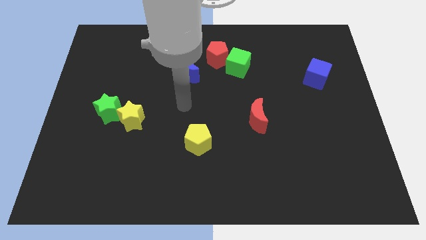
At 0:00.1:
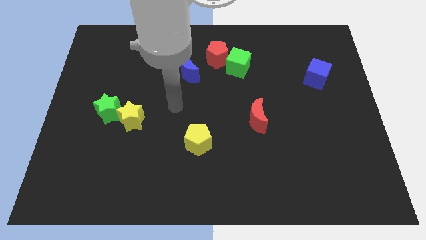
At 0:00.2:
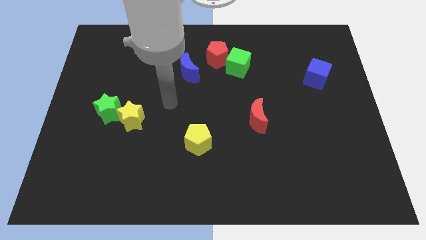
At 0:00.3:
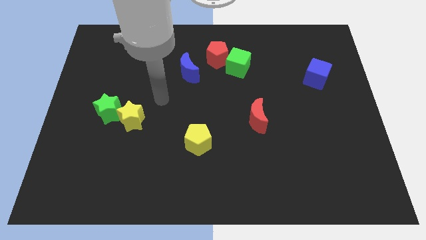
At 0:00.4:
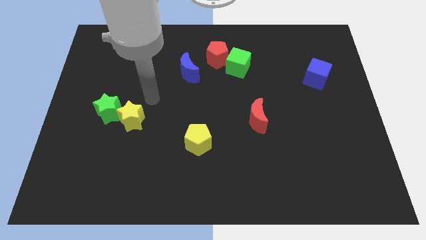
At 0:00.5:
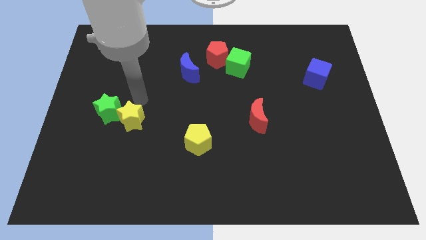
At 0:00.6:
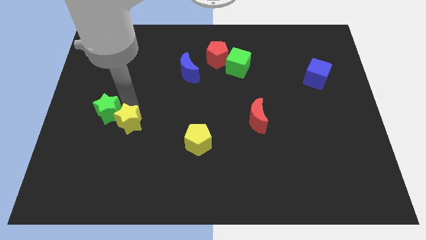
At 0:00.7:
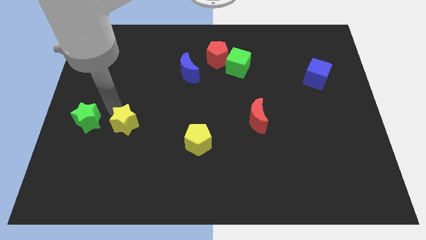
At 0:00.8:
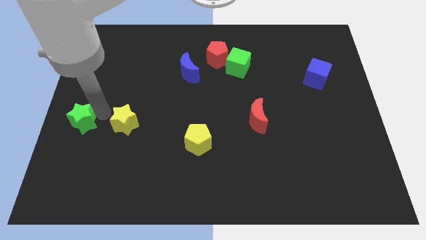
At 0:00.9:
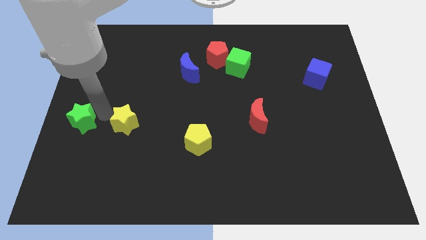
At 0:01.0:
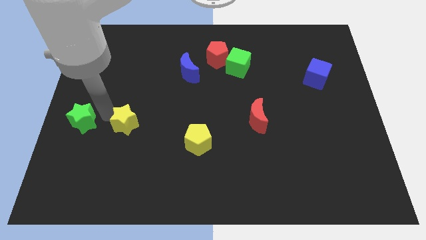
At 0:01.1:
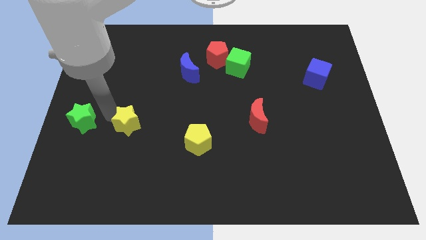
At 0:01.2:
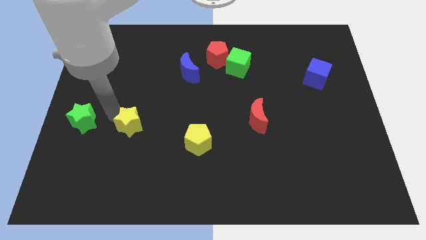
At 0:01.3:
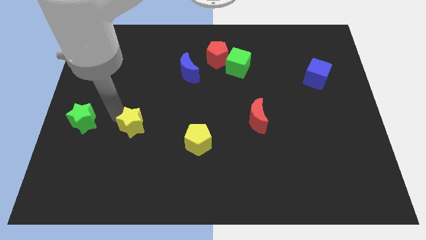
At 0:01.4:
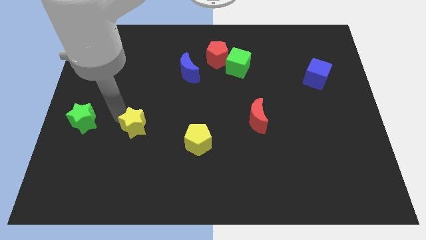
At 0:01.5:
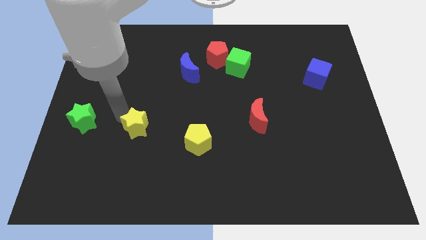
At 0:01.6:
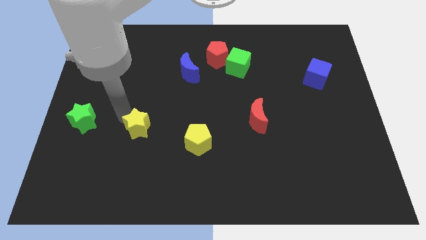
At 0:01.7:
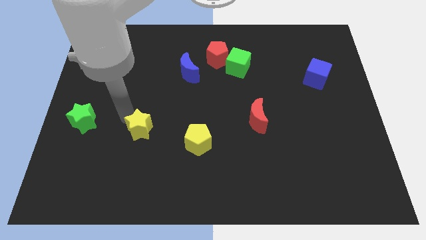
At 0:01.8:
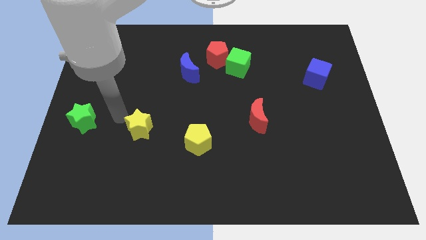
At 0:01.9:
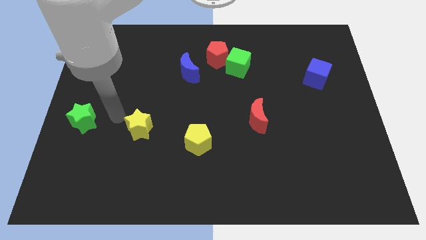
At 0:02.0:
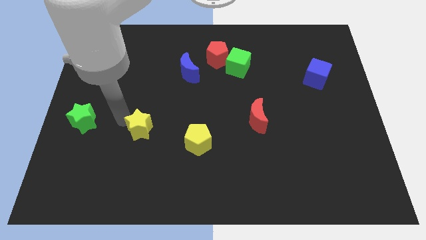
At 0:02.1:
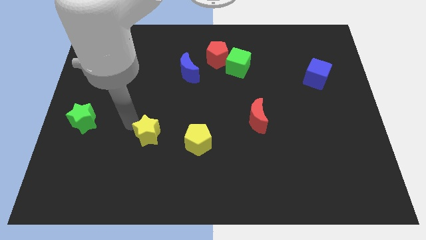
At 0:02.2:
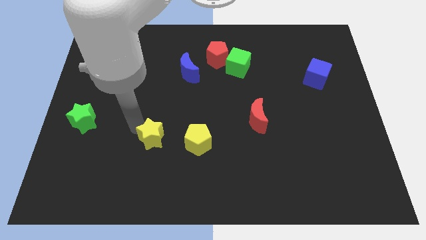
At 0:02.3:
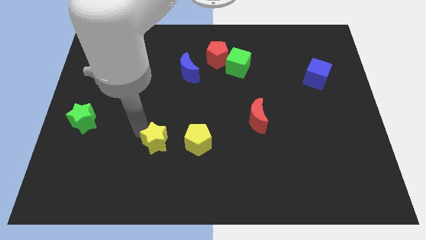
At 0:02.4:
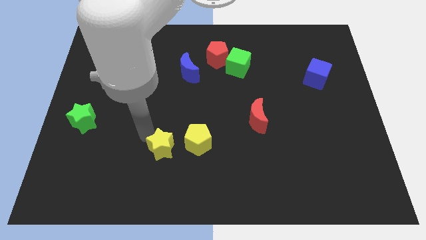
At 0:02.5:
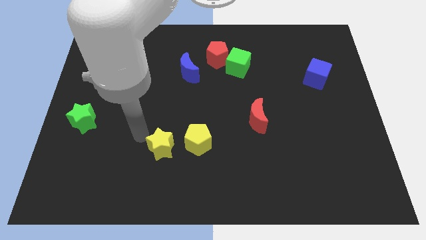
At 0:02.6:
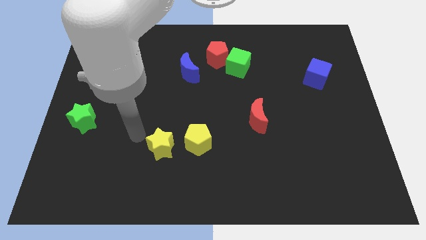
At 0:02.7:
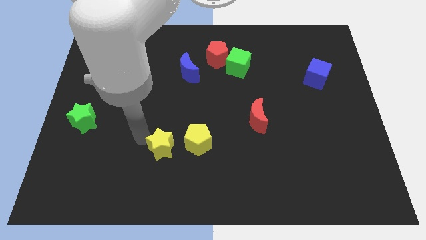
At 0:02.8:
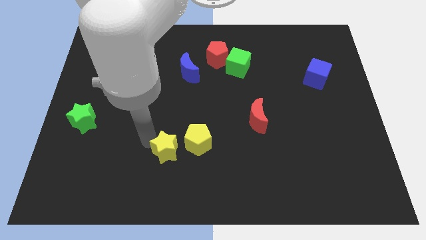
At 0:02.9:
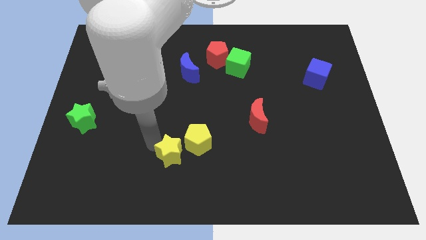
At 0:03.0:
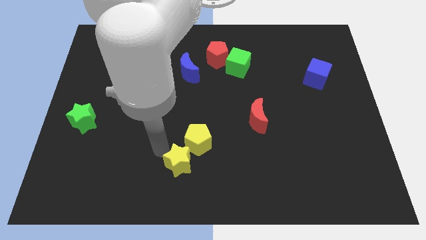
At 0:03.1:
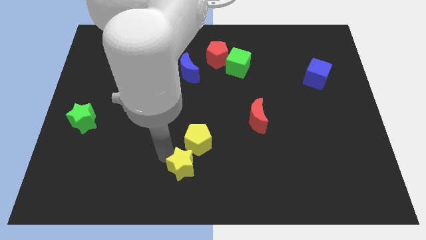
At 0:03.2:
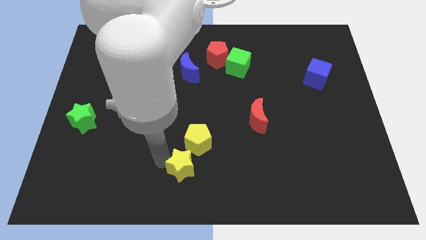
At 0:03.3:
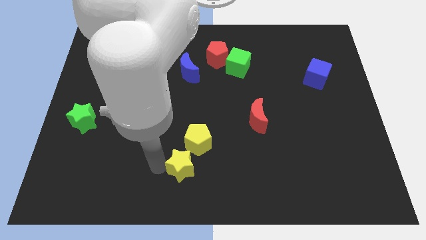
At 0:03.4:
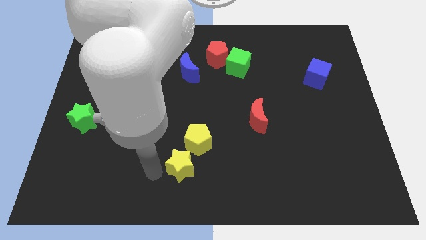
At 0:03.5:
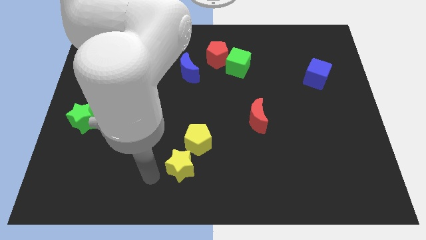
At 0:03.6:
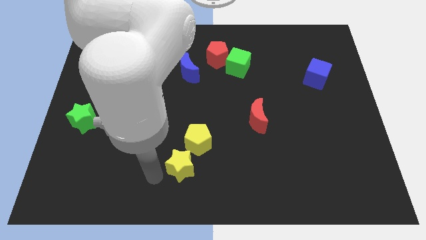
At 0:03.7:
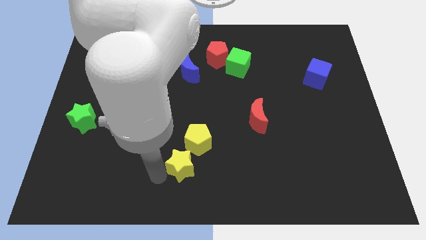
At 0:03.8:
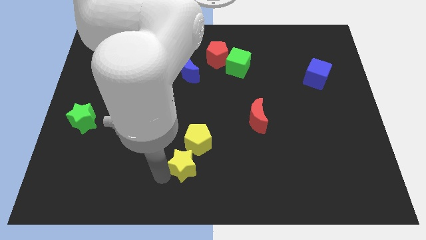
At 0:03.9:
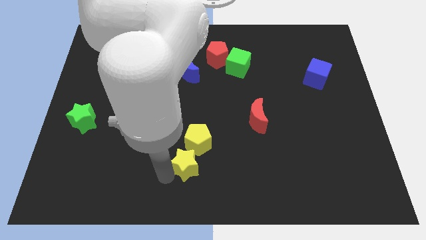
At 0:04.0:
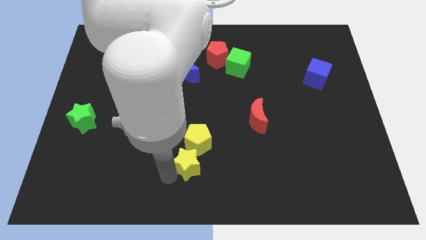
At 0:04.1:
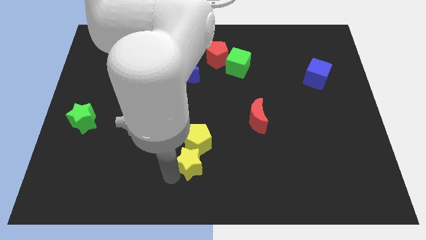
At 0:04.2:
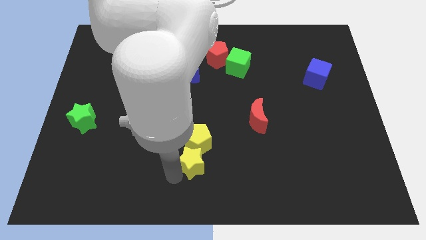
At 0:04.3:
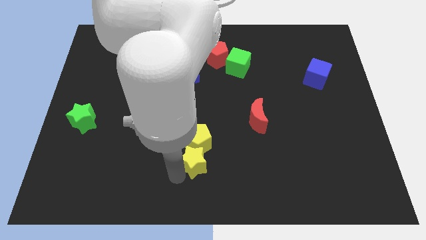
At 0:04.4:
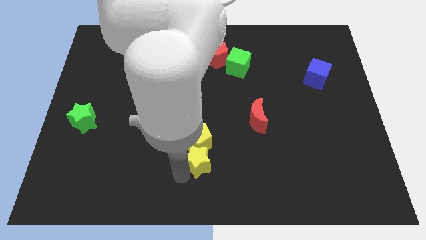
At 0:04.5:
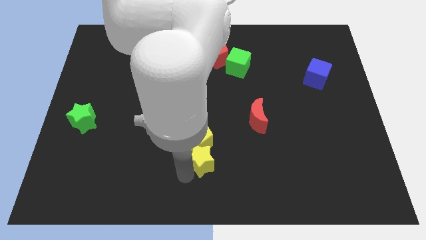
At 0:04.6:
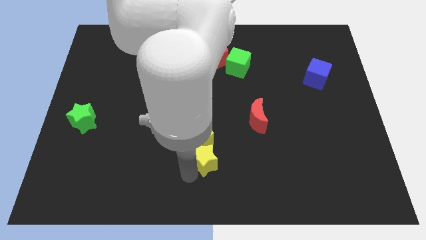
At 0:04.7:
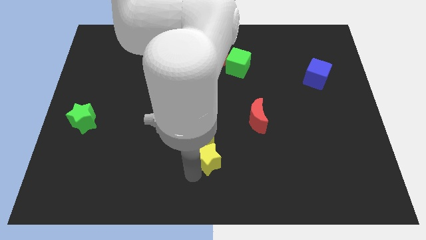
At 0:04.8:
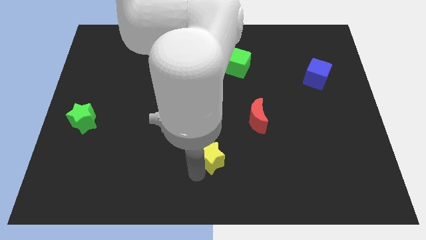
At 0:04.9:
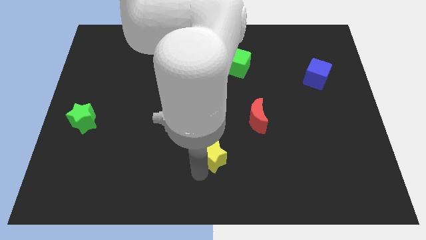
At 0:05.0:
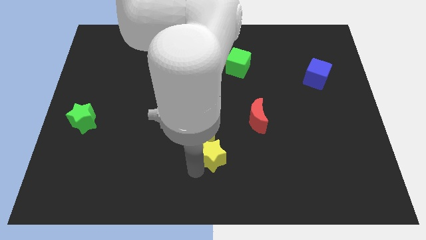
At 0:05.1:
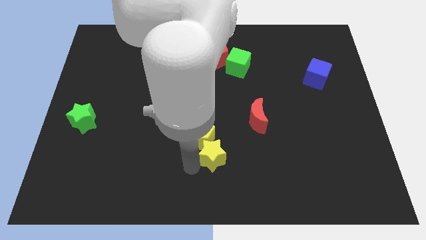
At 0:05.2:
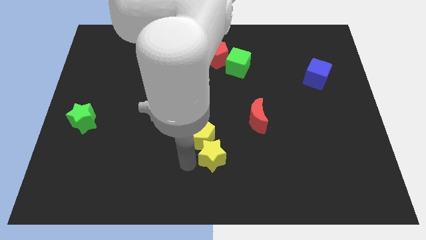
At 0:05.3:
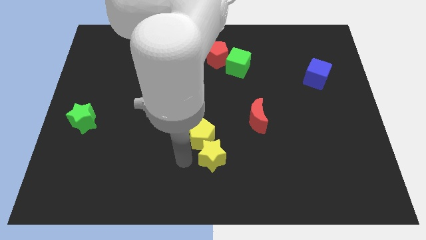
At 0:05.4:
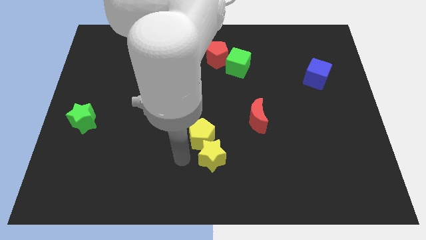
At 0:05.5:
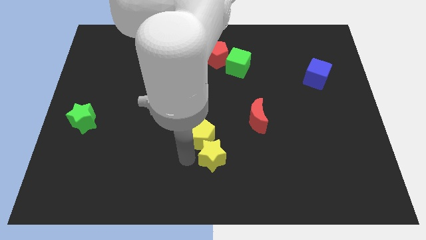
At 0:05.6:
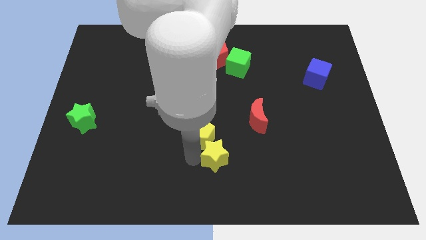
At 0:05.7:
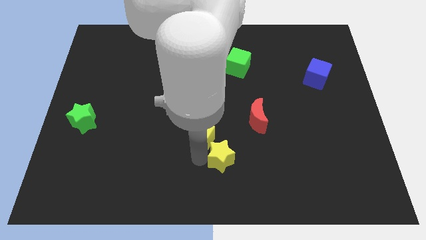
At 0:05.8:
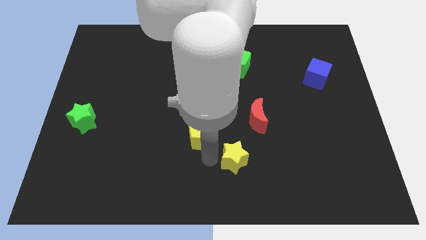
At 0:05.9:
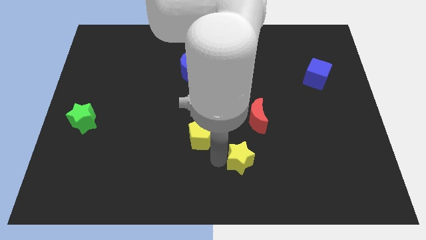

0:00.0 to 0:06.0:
move the yellow star to the bottom side of the red moon

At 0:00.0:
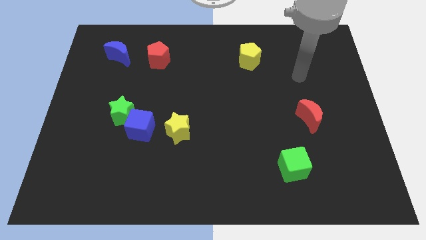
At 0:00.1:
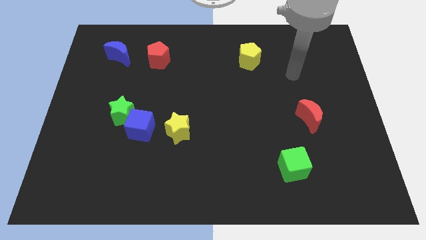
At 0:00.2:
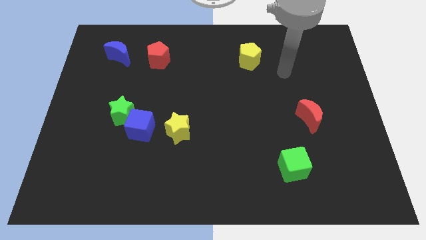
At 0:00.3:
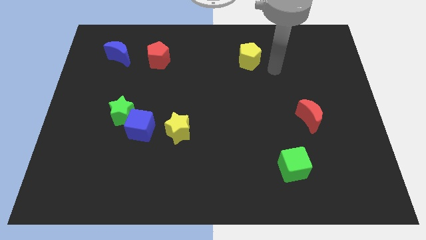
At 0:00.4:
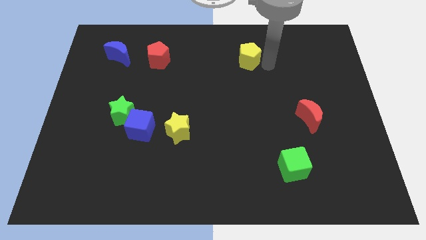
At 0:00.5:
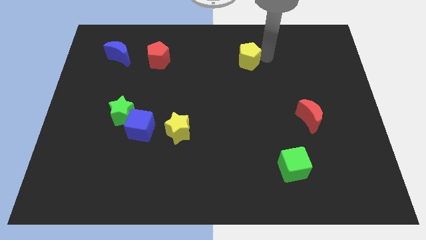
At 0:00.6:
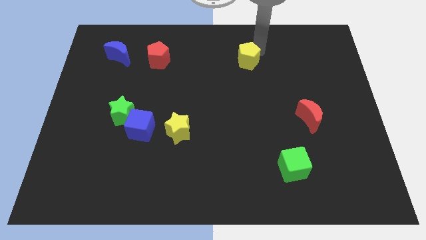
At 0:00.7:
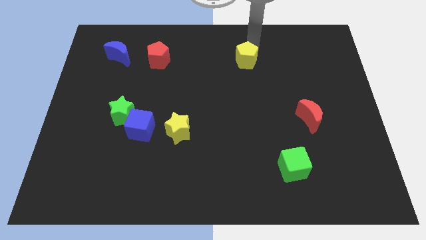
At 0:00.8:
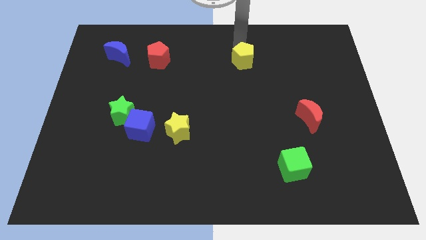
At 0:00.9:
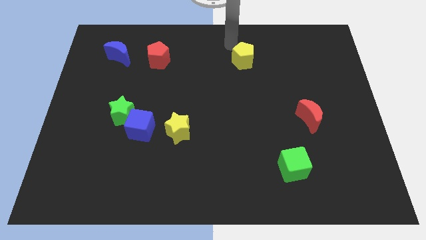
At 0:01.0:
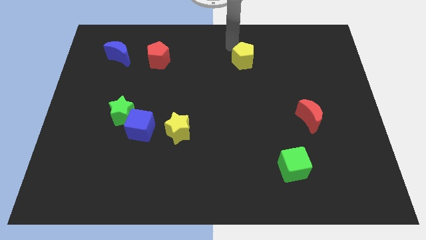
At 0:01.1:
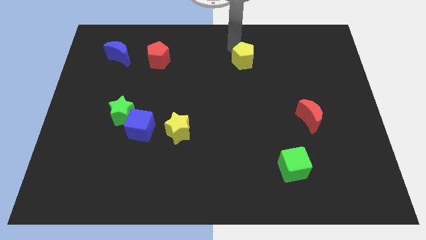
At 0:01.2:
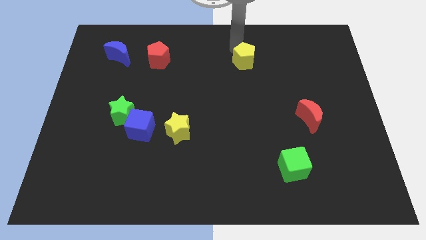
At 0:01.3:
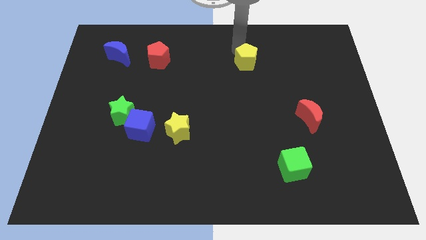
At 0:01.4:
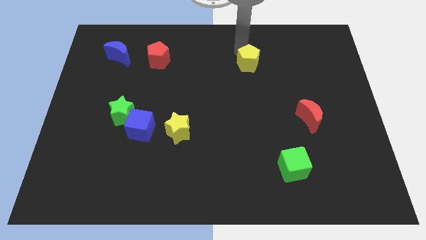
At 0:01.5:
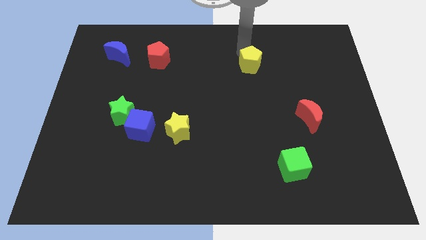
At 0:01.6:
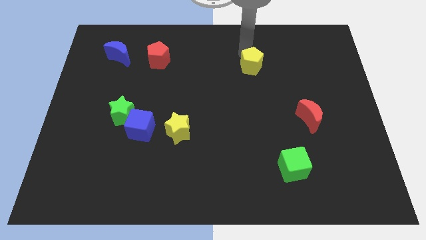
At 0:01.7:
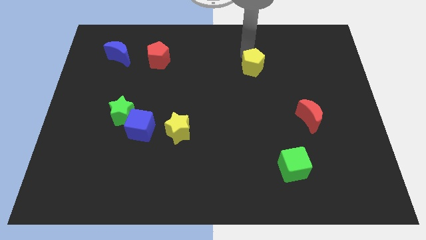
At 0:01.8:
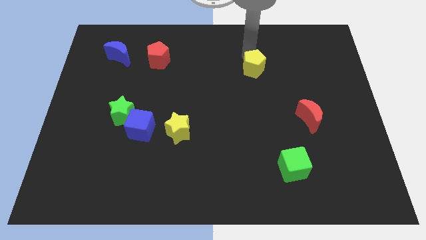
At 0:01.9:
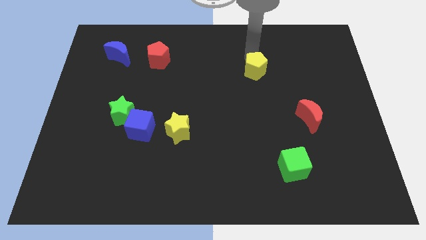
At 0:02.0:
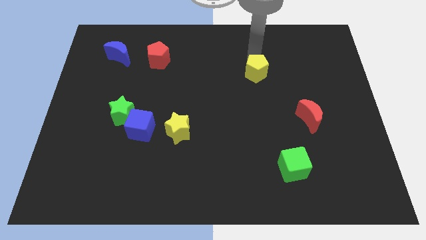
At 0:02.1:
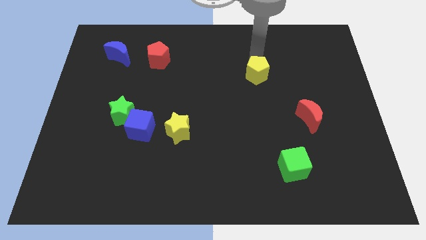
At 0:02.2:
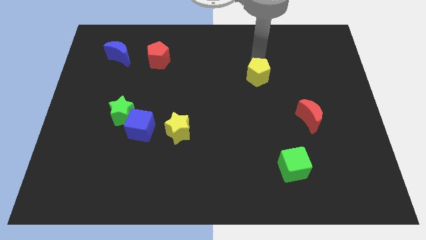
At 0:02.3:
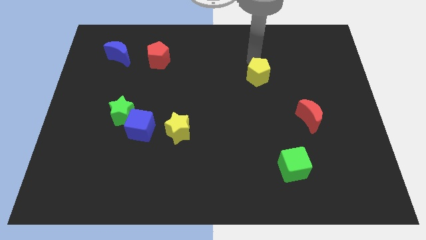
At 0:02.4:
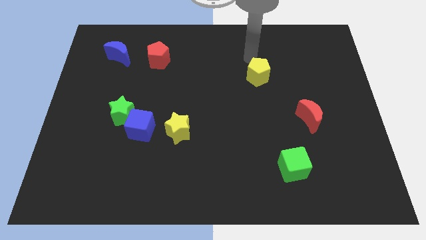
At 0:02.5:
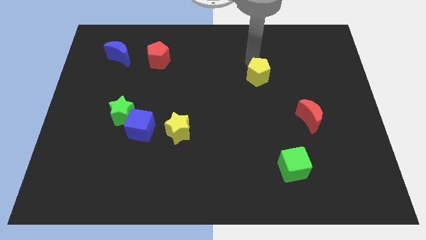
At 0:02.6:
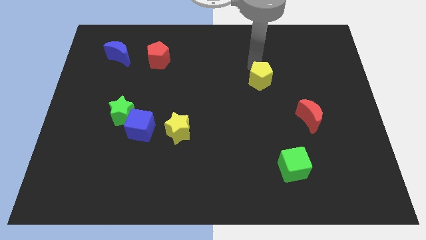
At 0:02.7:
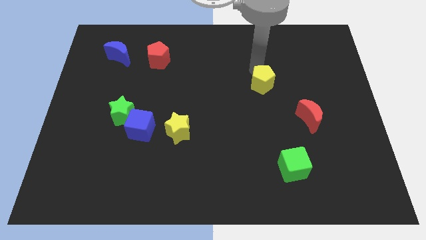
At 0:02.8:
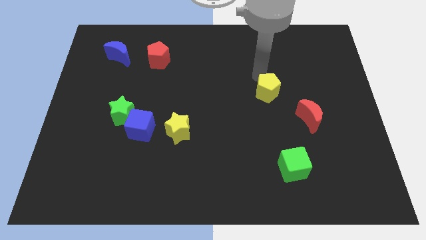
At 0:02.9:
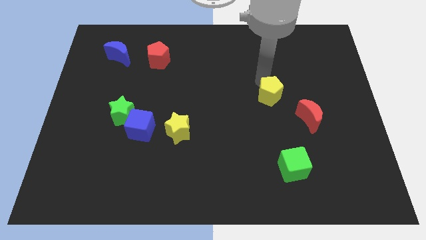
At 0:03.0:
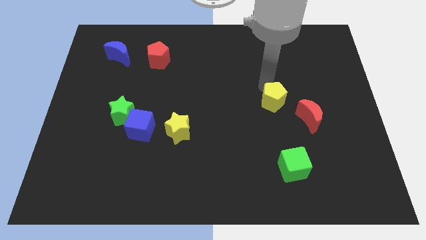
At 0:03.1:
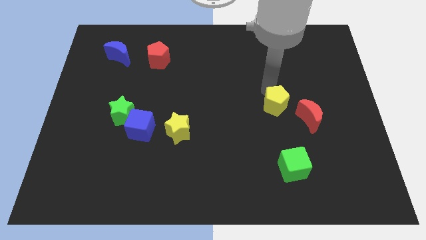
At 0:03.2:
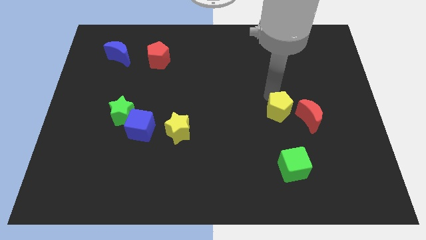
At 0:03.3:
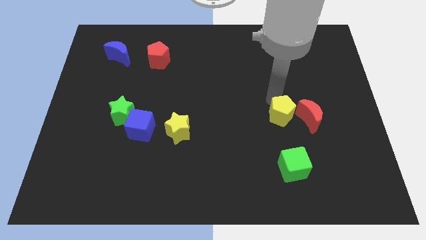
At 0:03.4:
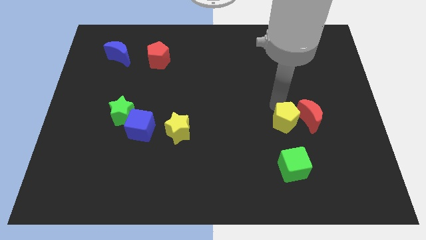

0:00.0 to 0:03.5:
slide the yellow pentagon diagonally down and to the left of the red moon
